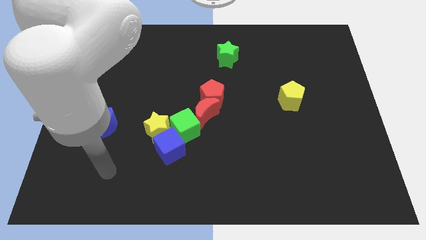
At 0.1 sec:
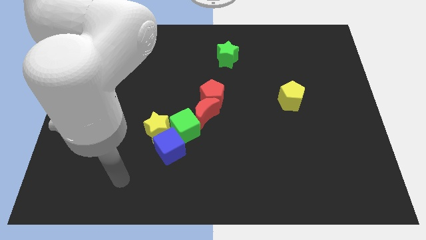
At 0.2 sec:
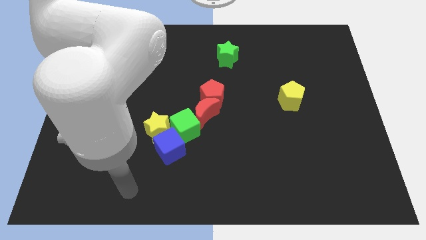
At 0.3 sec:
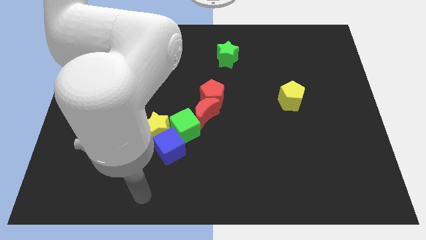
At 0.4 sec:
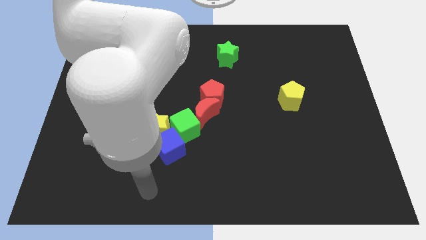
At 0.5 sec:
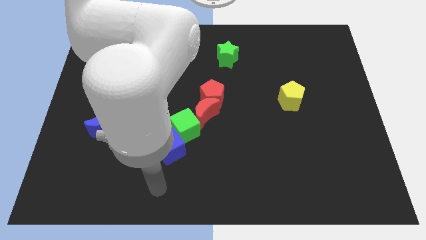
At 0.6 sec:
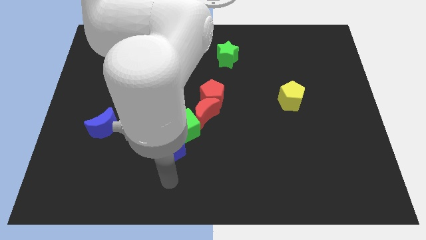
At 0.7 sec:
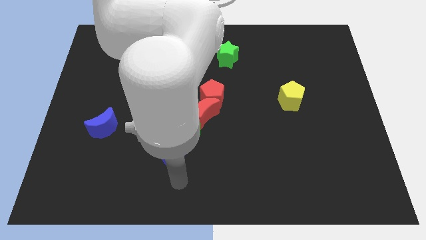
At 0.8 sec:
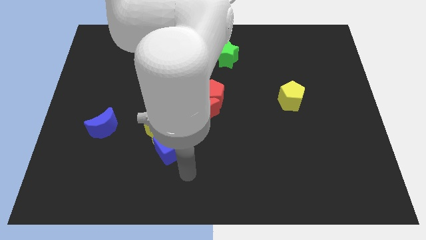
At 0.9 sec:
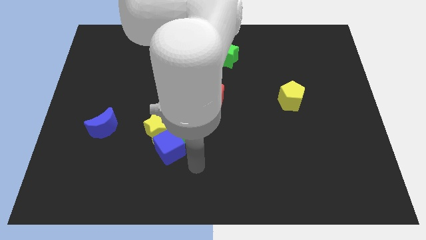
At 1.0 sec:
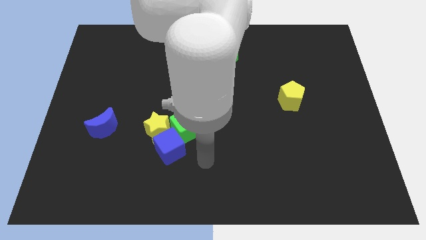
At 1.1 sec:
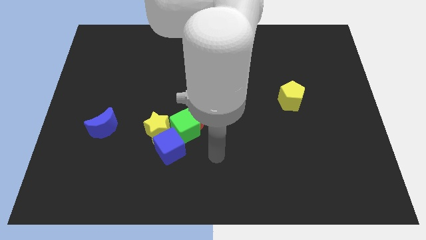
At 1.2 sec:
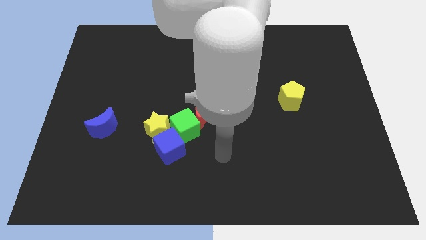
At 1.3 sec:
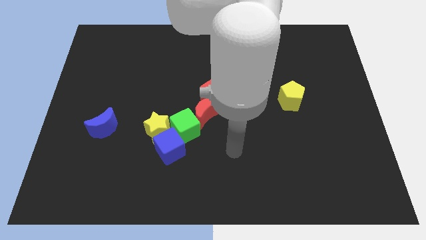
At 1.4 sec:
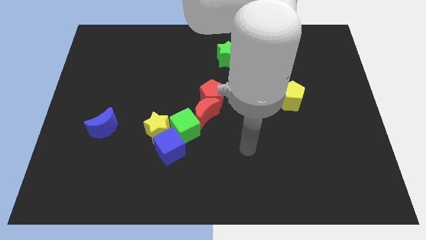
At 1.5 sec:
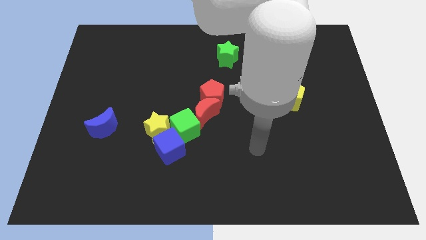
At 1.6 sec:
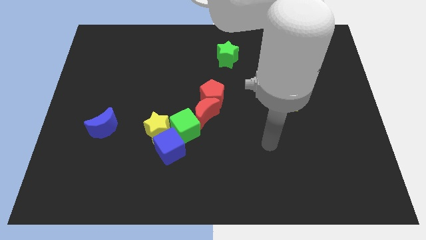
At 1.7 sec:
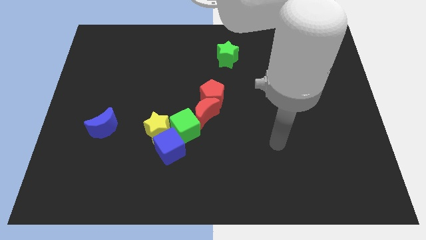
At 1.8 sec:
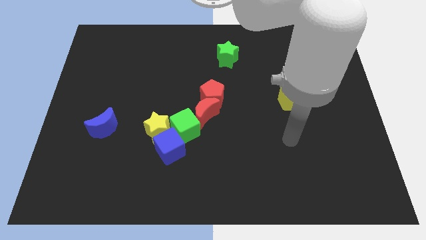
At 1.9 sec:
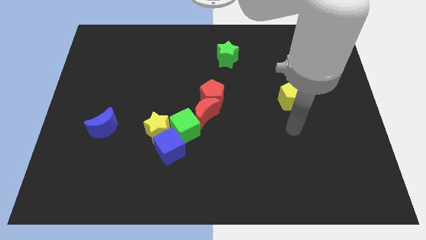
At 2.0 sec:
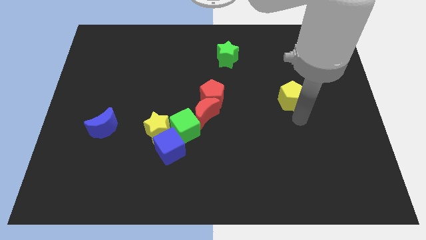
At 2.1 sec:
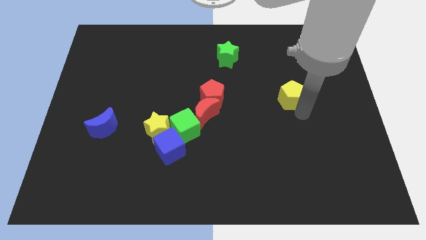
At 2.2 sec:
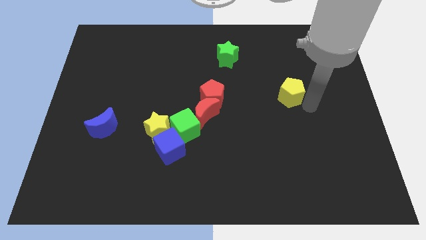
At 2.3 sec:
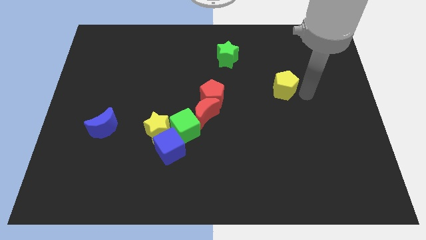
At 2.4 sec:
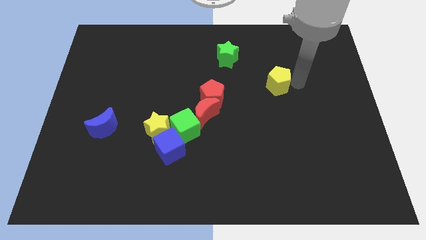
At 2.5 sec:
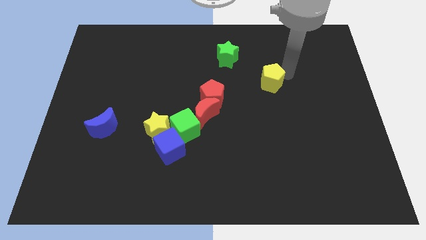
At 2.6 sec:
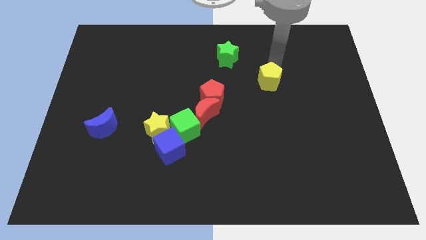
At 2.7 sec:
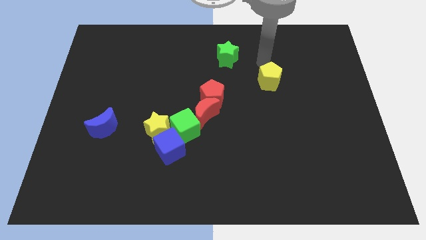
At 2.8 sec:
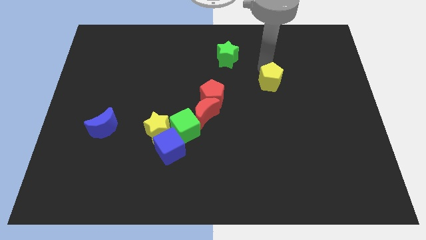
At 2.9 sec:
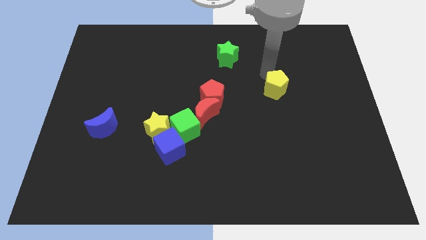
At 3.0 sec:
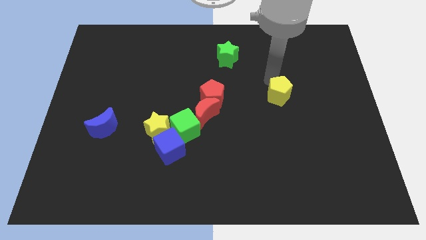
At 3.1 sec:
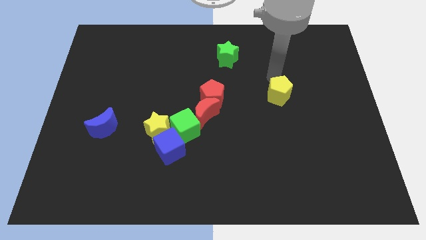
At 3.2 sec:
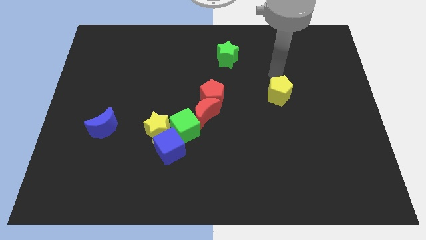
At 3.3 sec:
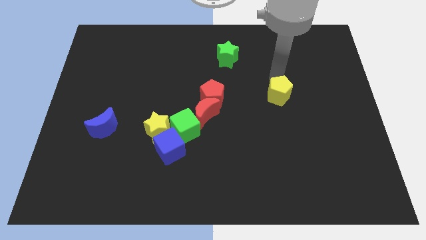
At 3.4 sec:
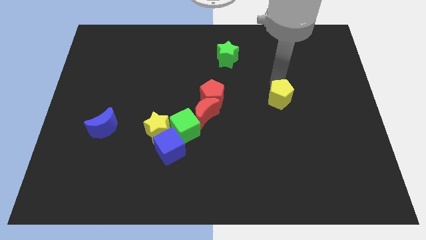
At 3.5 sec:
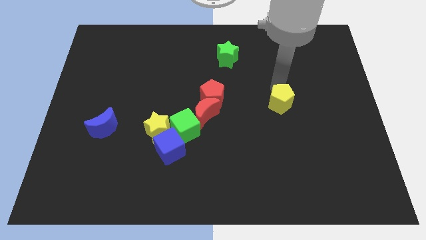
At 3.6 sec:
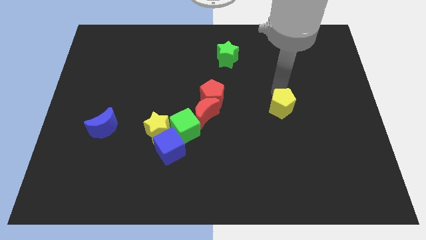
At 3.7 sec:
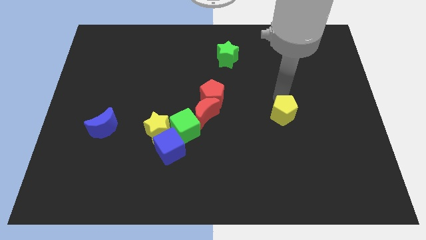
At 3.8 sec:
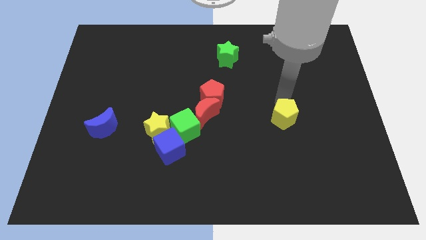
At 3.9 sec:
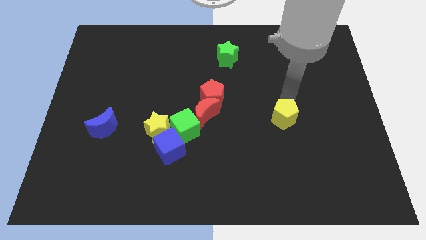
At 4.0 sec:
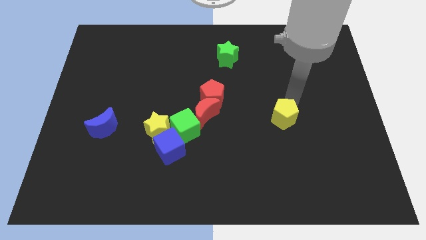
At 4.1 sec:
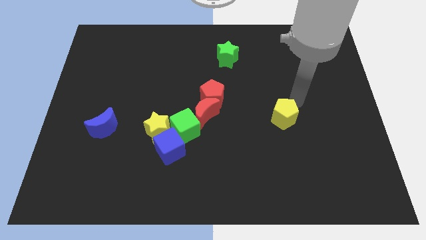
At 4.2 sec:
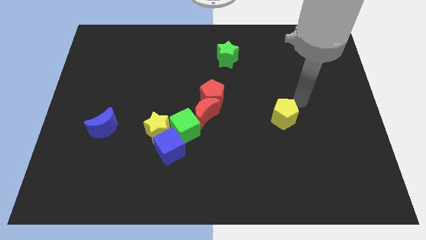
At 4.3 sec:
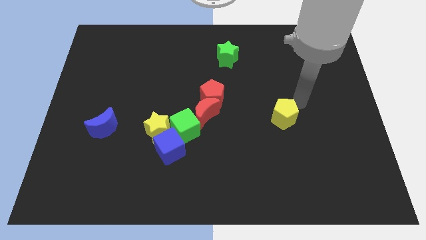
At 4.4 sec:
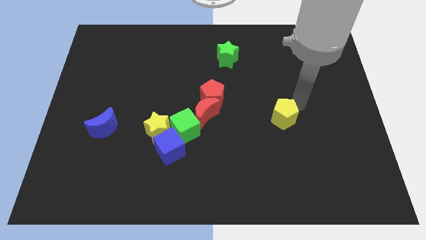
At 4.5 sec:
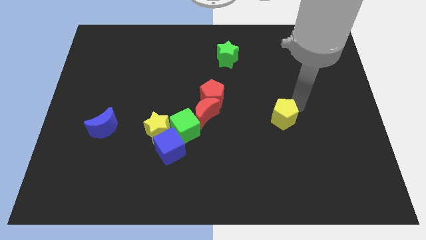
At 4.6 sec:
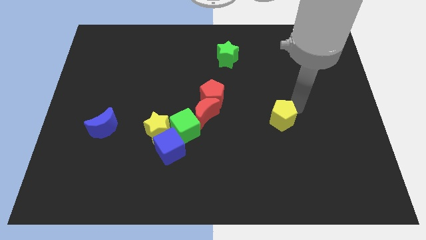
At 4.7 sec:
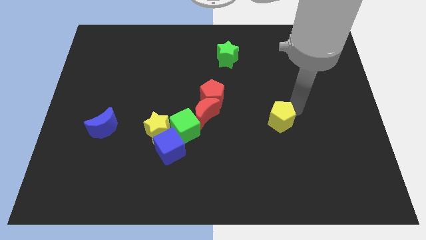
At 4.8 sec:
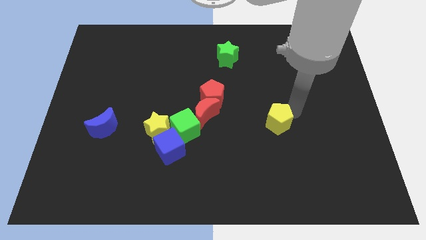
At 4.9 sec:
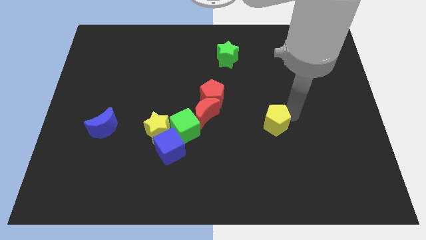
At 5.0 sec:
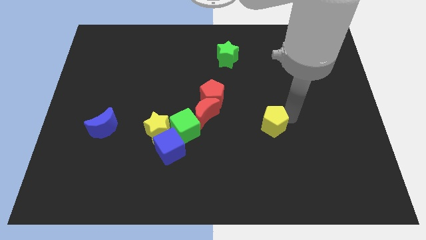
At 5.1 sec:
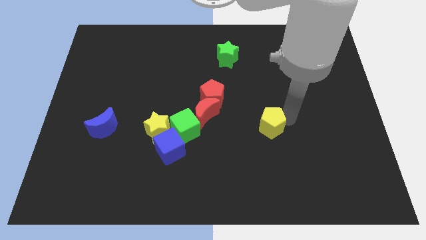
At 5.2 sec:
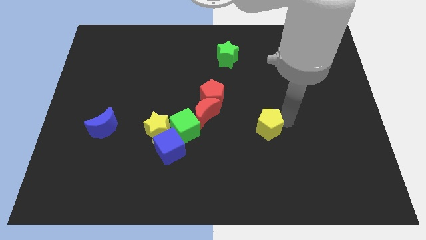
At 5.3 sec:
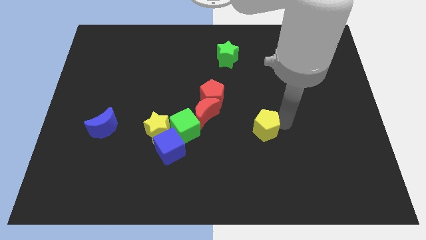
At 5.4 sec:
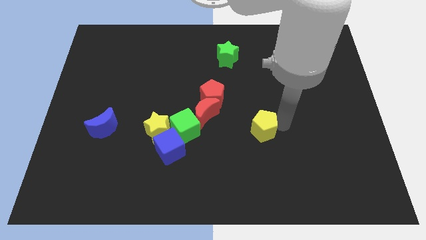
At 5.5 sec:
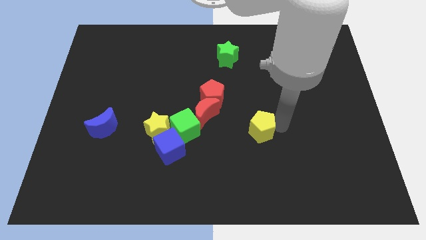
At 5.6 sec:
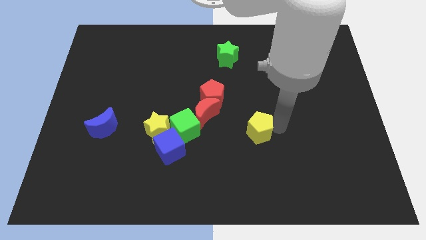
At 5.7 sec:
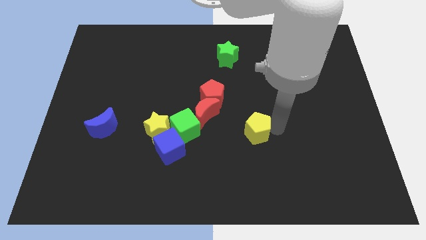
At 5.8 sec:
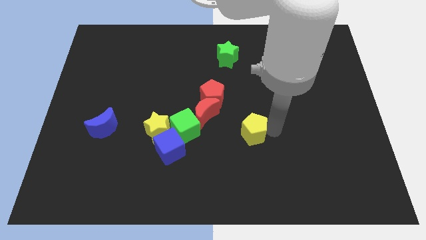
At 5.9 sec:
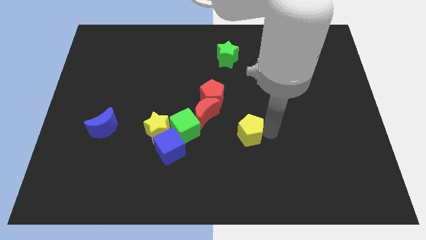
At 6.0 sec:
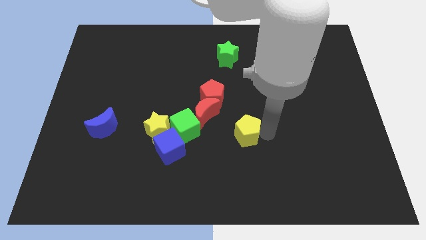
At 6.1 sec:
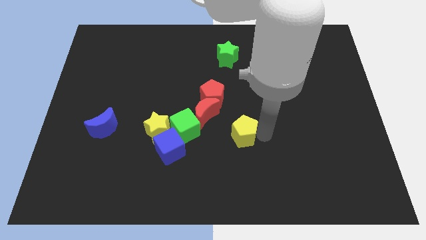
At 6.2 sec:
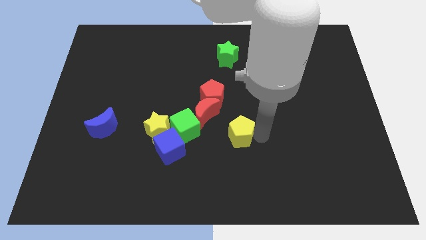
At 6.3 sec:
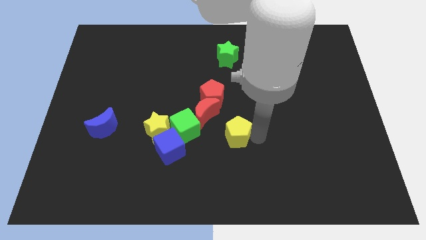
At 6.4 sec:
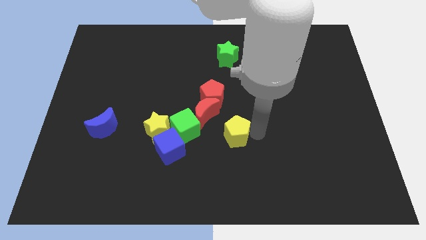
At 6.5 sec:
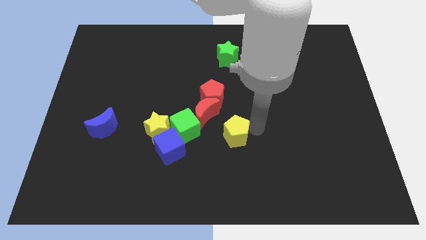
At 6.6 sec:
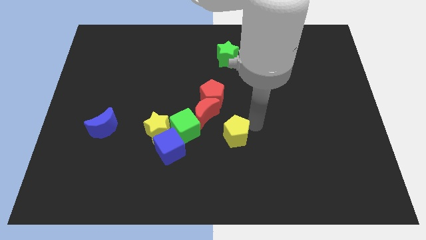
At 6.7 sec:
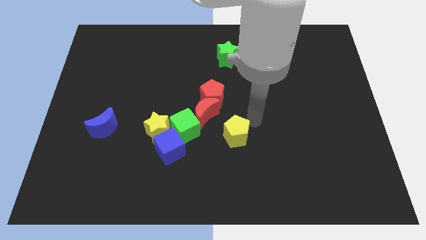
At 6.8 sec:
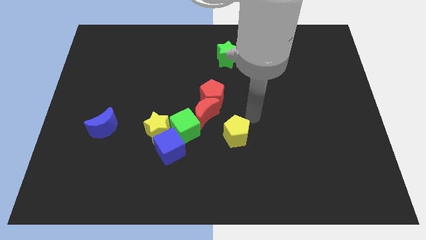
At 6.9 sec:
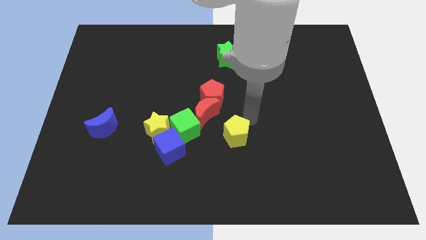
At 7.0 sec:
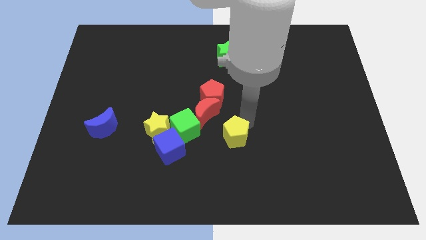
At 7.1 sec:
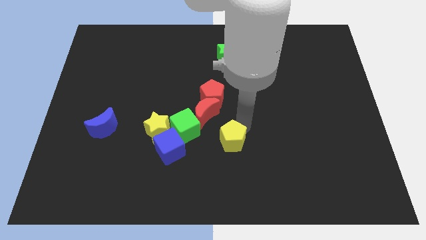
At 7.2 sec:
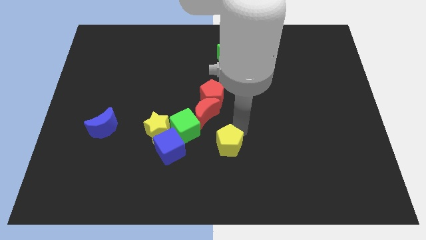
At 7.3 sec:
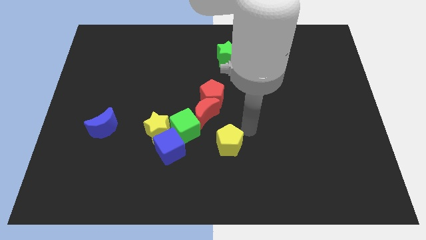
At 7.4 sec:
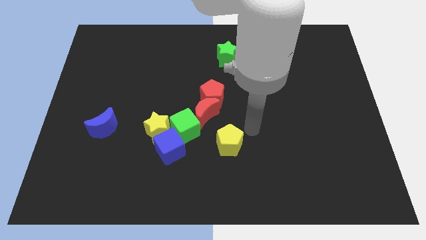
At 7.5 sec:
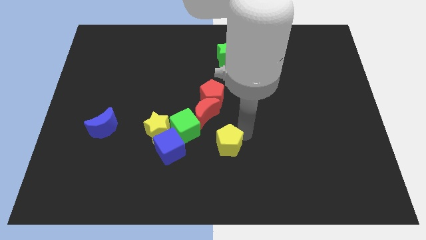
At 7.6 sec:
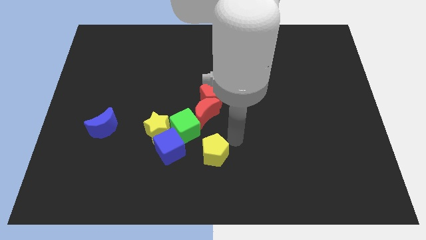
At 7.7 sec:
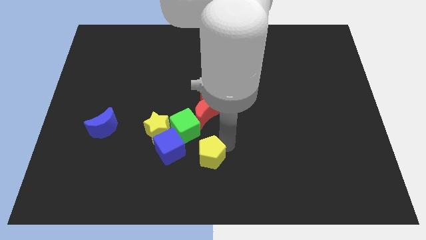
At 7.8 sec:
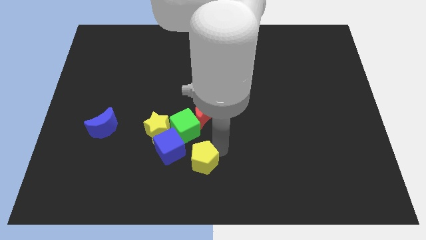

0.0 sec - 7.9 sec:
move the yellow pentagon below the green cube
